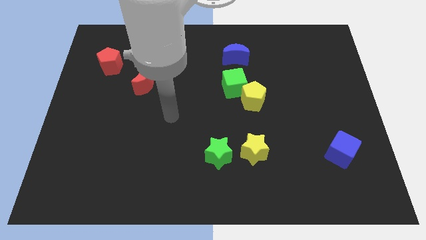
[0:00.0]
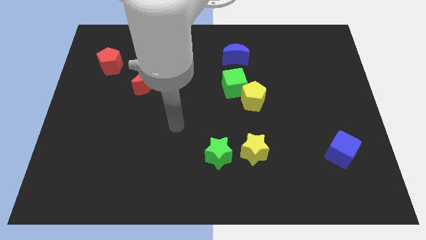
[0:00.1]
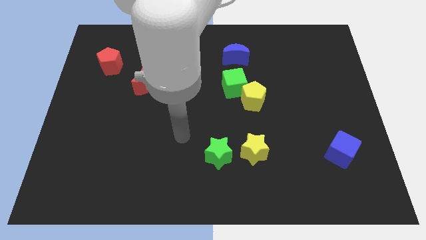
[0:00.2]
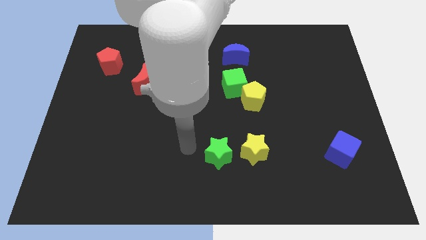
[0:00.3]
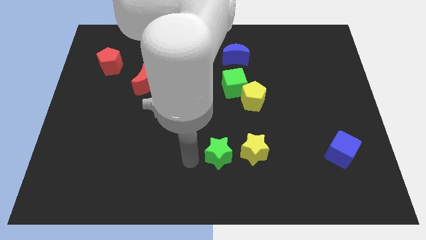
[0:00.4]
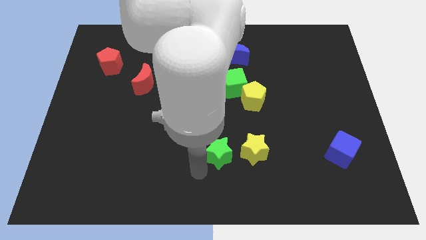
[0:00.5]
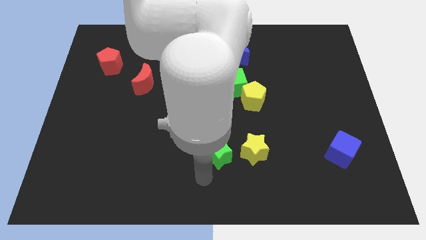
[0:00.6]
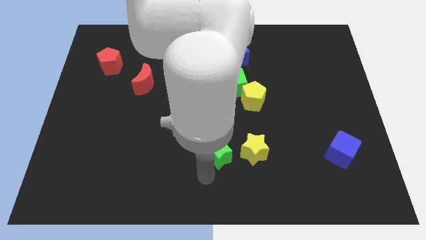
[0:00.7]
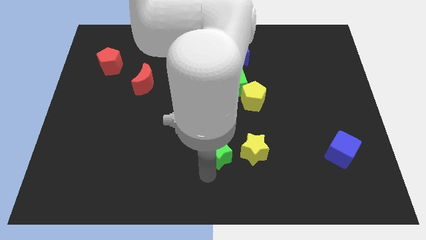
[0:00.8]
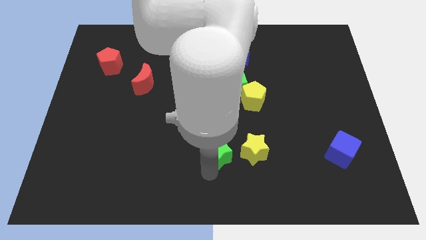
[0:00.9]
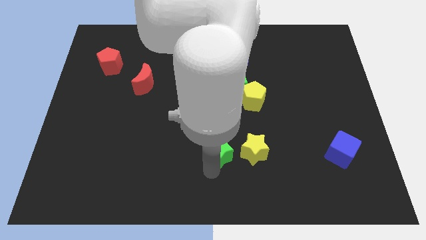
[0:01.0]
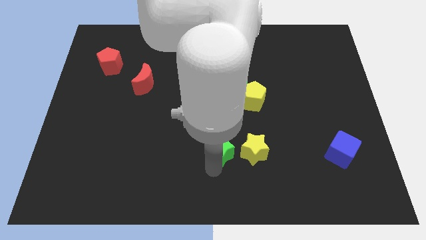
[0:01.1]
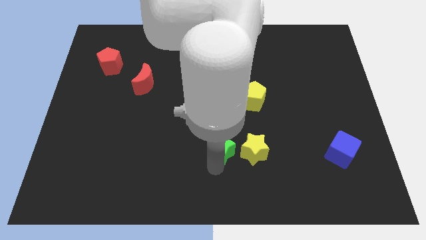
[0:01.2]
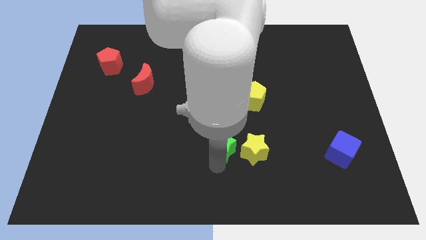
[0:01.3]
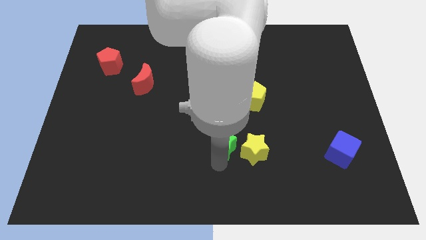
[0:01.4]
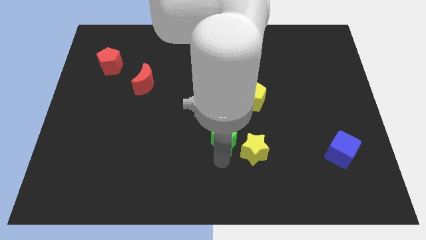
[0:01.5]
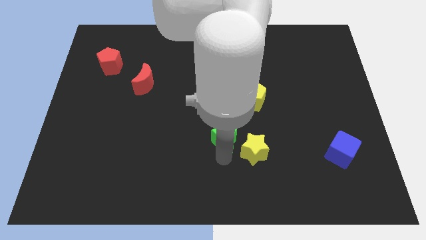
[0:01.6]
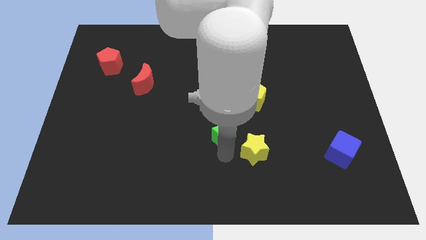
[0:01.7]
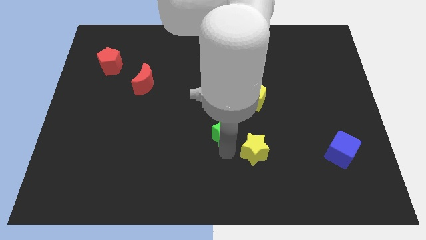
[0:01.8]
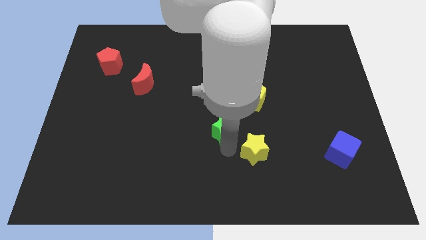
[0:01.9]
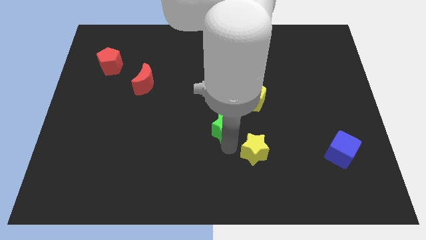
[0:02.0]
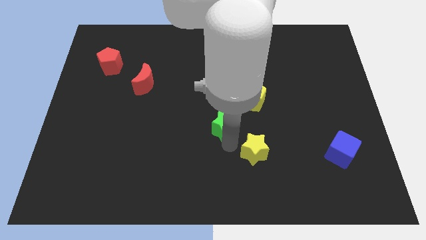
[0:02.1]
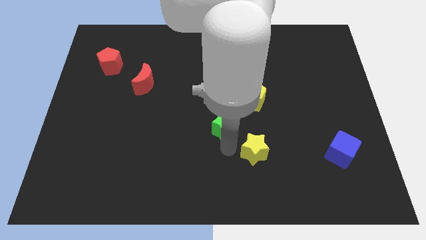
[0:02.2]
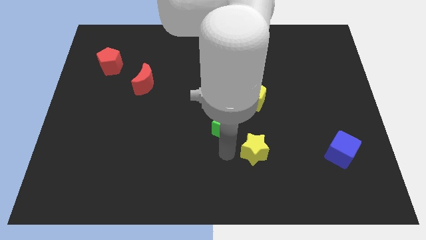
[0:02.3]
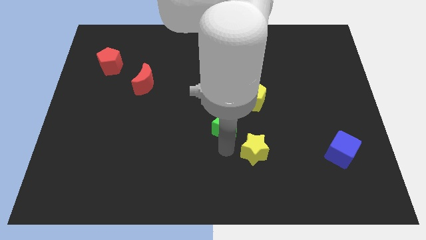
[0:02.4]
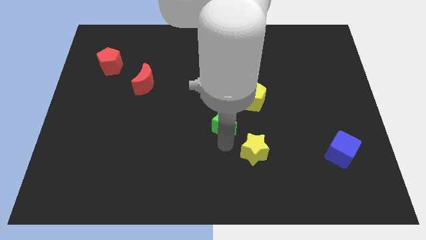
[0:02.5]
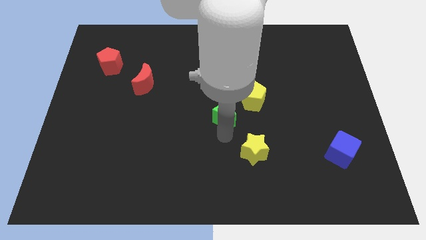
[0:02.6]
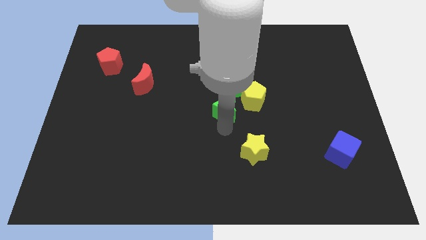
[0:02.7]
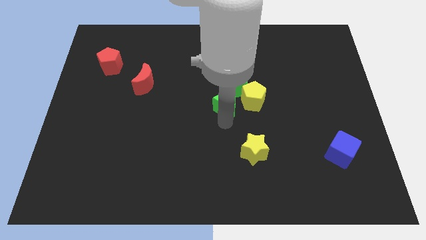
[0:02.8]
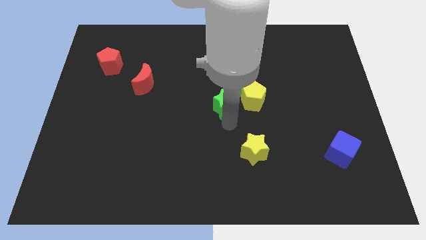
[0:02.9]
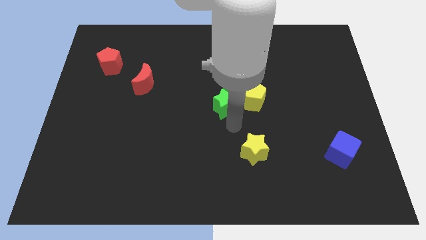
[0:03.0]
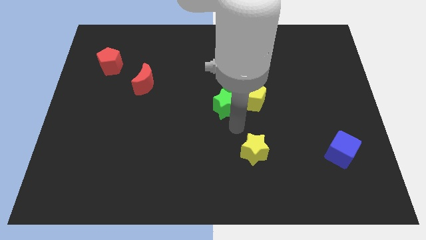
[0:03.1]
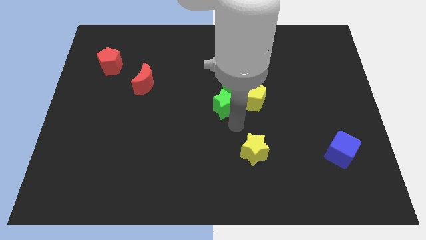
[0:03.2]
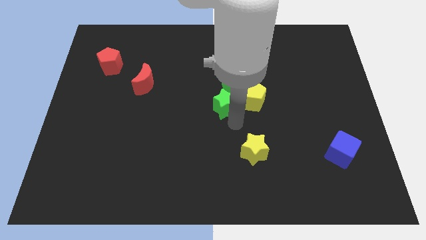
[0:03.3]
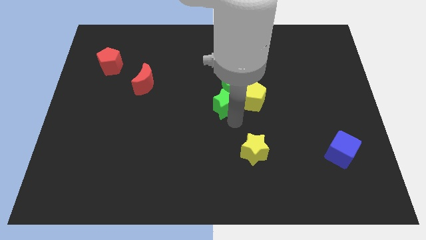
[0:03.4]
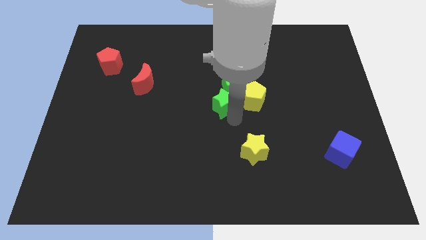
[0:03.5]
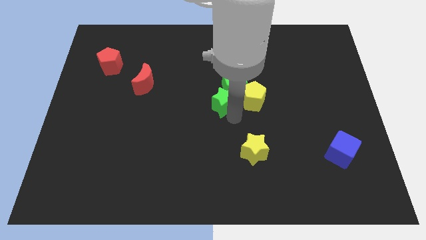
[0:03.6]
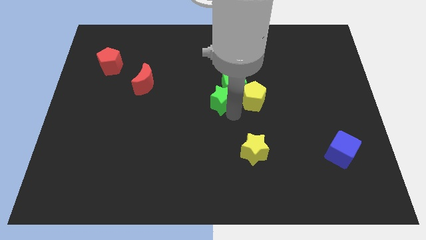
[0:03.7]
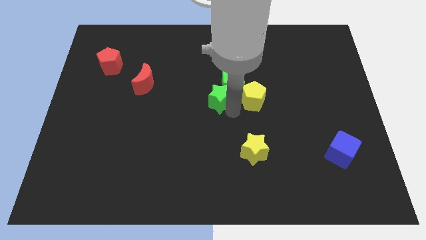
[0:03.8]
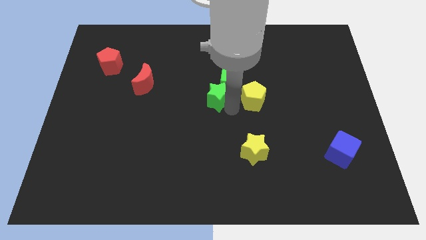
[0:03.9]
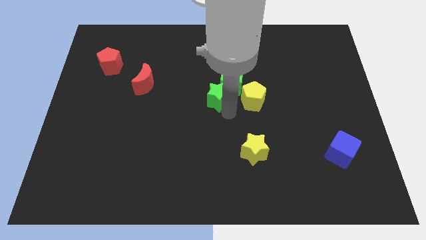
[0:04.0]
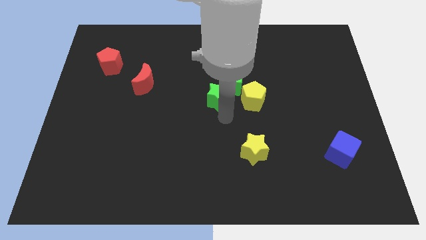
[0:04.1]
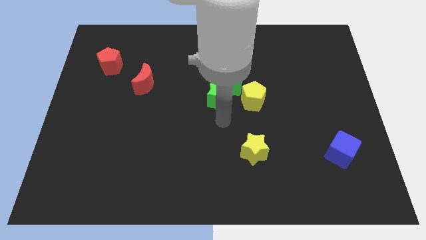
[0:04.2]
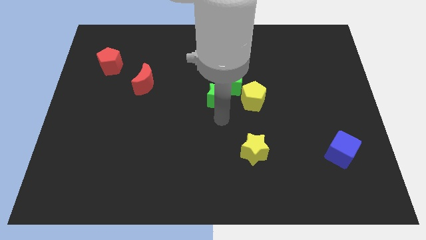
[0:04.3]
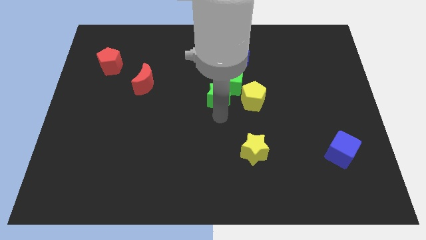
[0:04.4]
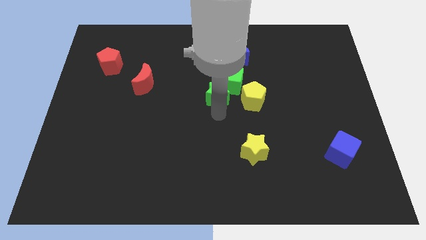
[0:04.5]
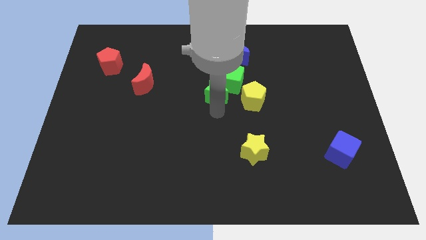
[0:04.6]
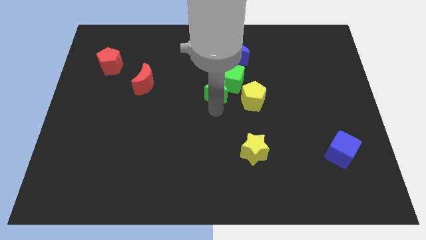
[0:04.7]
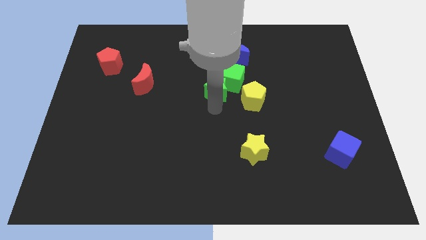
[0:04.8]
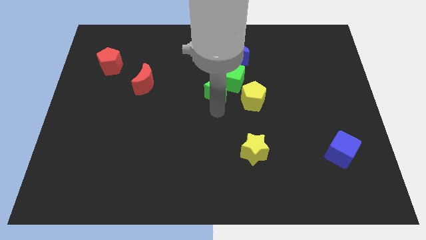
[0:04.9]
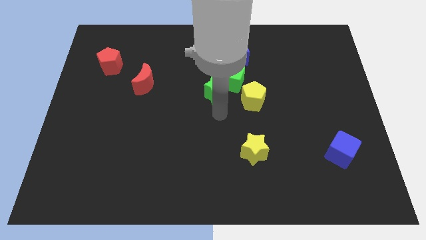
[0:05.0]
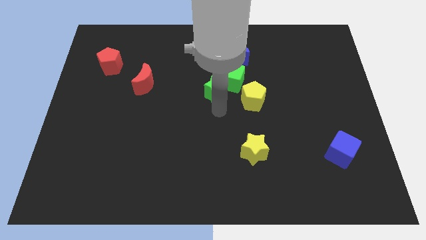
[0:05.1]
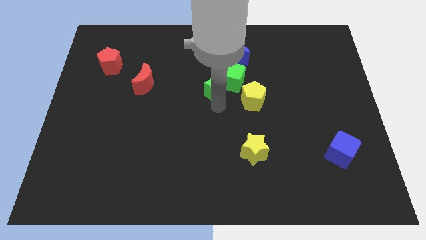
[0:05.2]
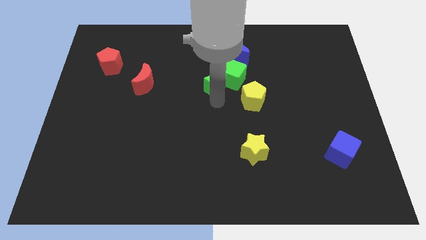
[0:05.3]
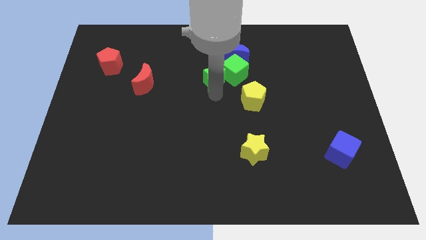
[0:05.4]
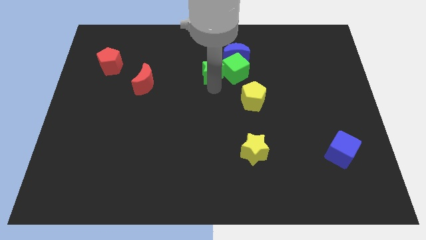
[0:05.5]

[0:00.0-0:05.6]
slide the green star diagonally up and to the left of the green cube
